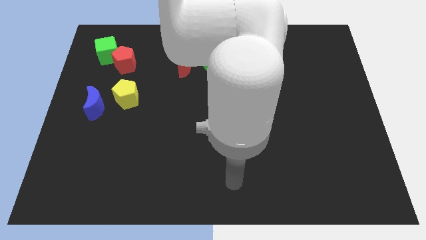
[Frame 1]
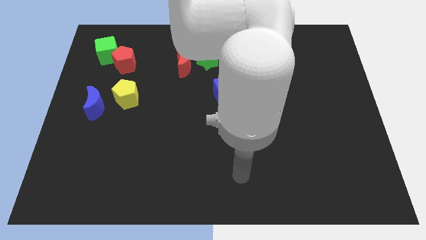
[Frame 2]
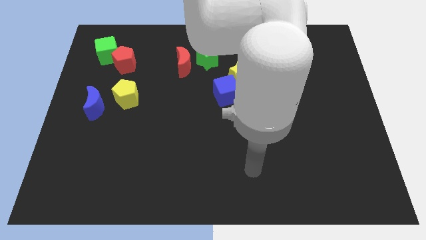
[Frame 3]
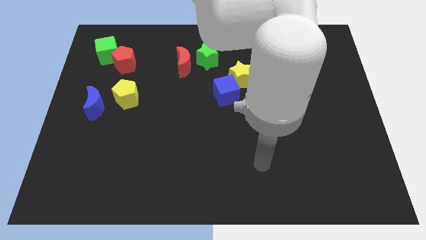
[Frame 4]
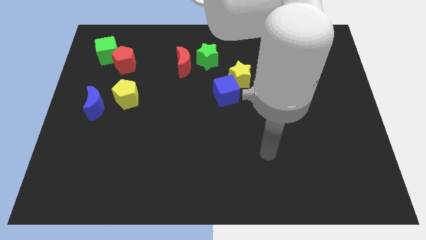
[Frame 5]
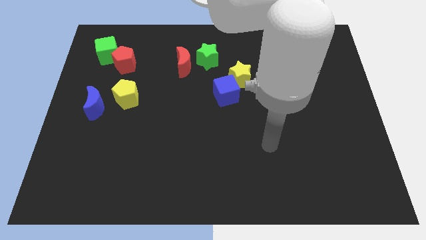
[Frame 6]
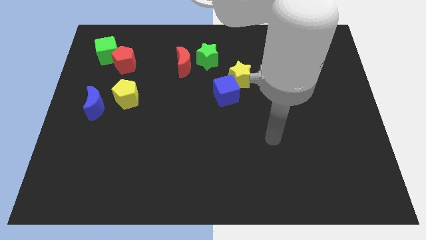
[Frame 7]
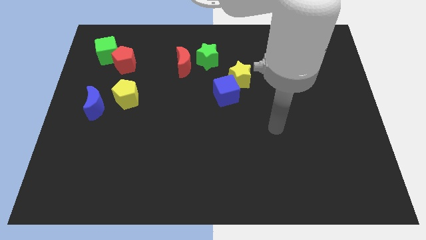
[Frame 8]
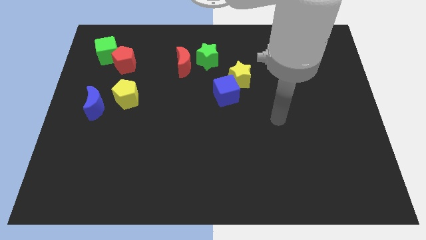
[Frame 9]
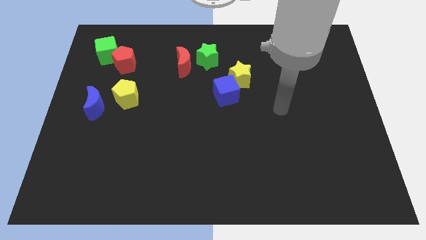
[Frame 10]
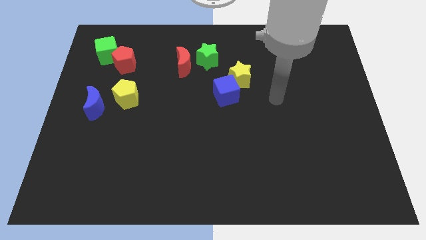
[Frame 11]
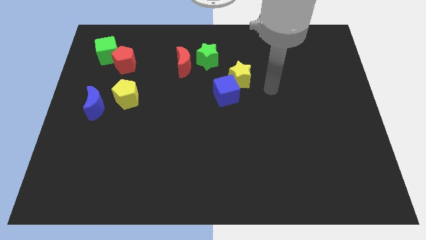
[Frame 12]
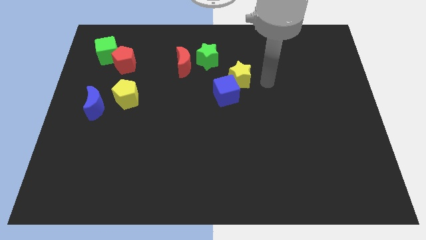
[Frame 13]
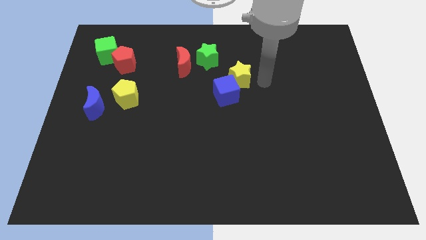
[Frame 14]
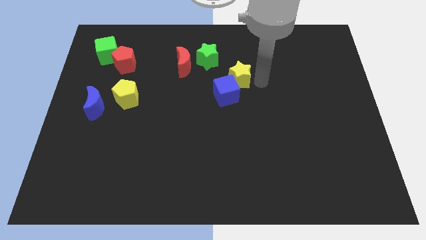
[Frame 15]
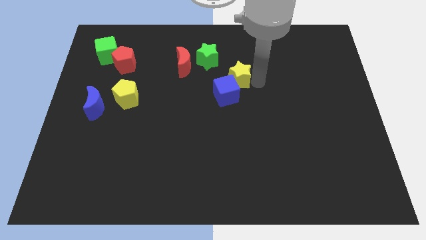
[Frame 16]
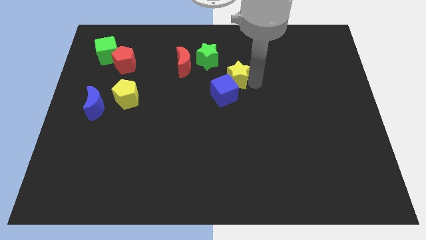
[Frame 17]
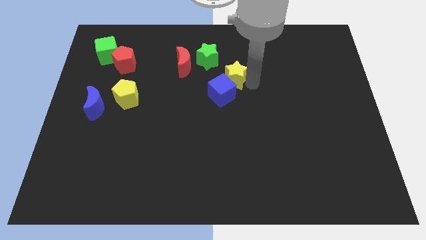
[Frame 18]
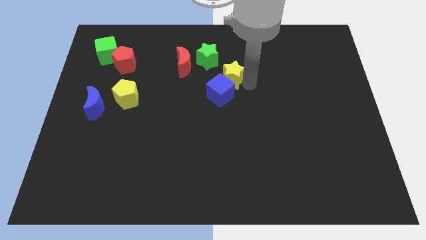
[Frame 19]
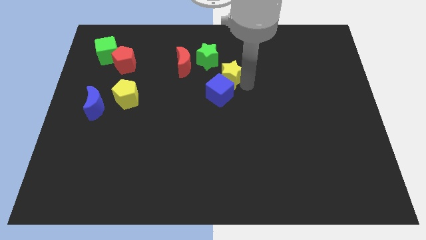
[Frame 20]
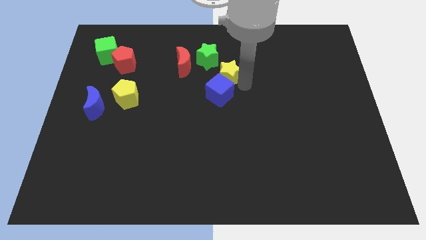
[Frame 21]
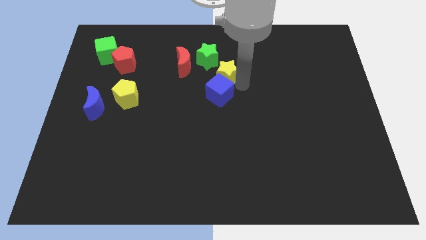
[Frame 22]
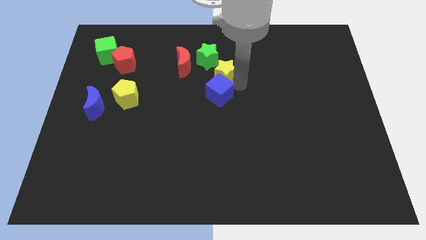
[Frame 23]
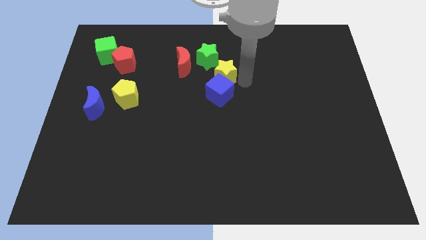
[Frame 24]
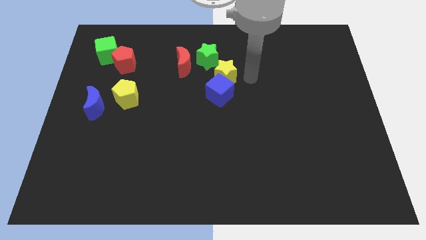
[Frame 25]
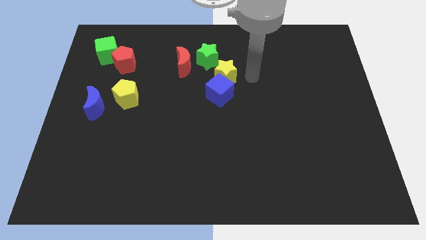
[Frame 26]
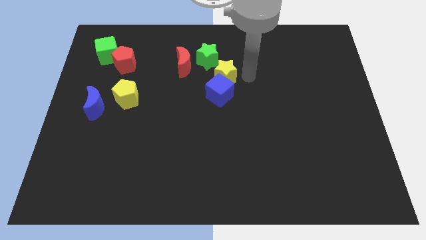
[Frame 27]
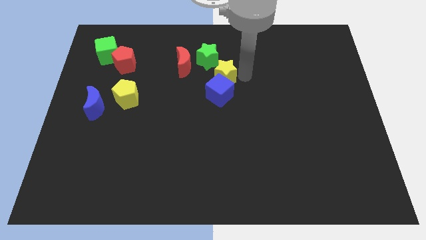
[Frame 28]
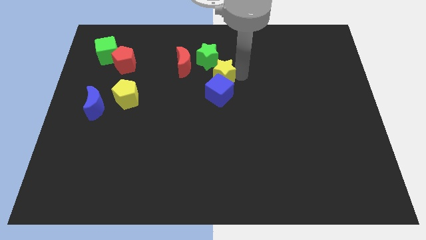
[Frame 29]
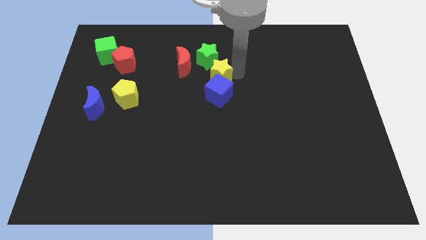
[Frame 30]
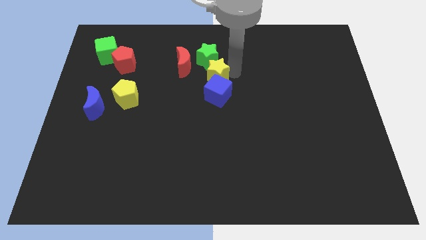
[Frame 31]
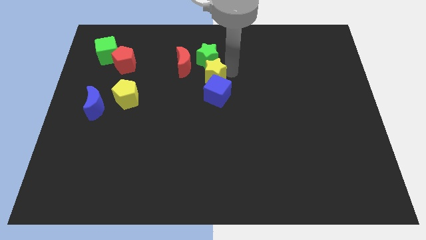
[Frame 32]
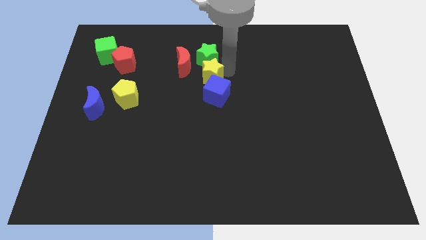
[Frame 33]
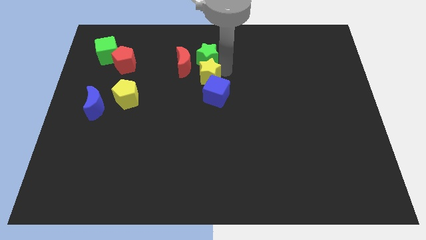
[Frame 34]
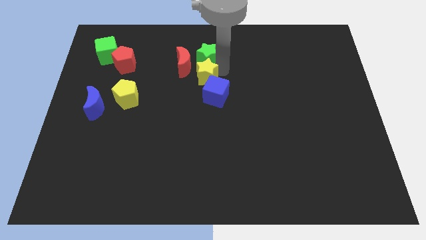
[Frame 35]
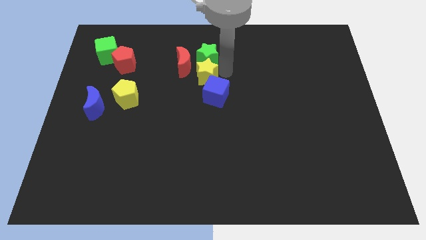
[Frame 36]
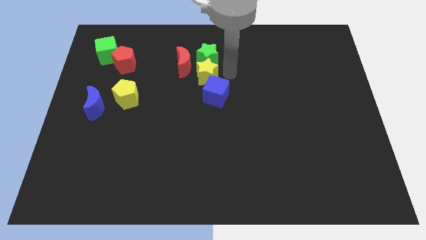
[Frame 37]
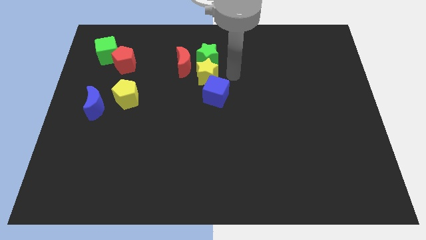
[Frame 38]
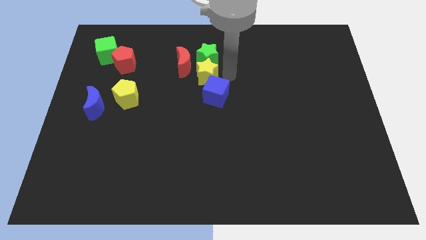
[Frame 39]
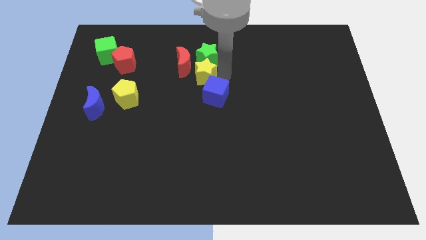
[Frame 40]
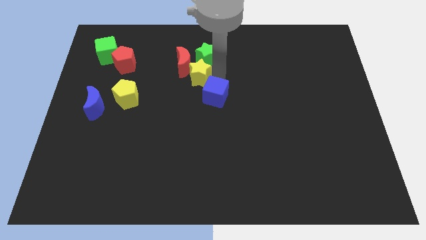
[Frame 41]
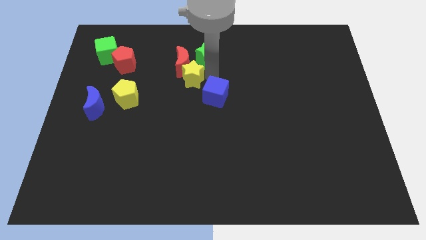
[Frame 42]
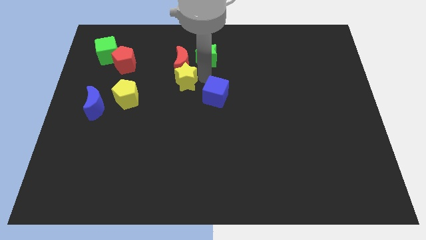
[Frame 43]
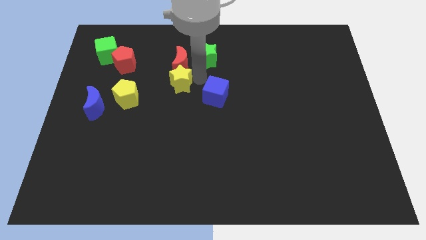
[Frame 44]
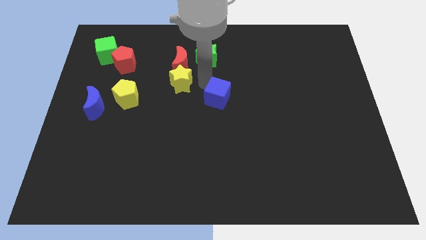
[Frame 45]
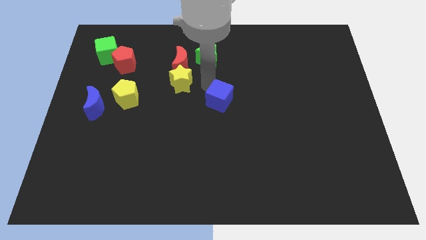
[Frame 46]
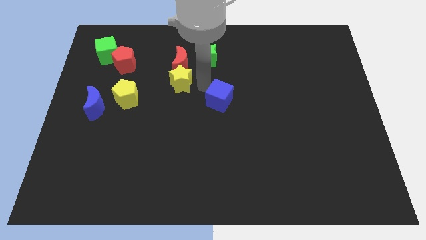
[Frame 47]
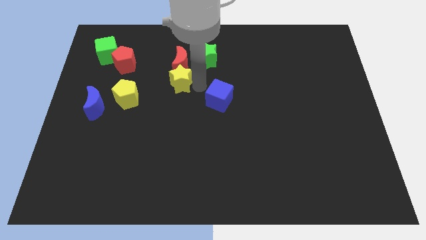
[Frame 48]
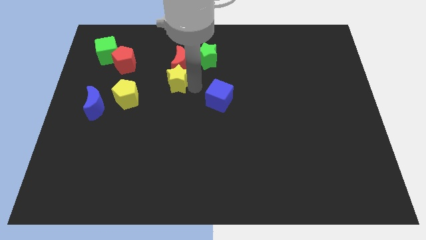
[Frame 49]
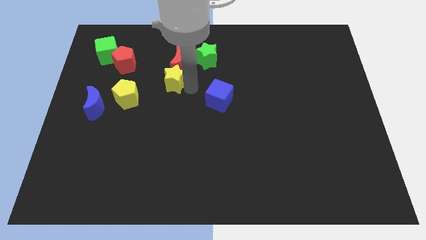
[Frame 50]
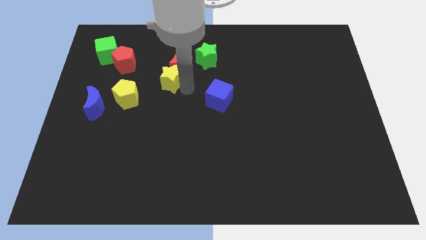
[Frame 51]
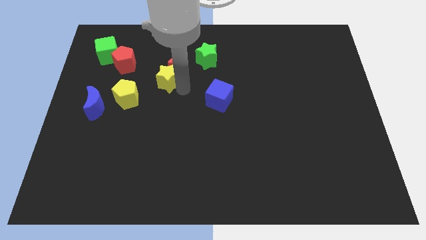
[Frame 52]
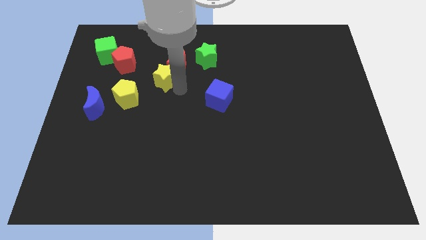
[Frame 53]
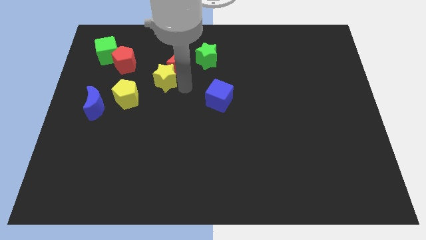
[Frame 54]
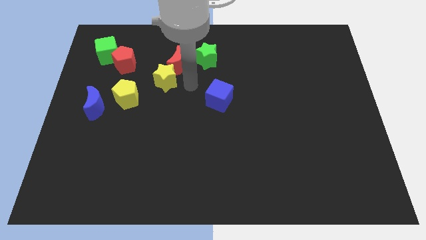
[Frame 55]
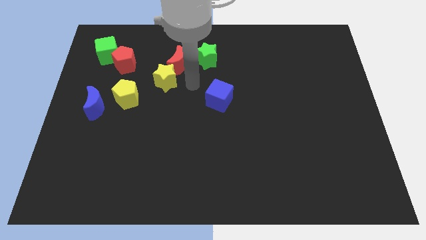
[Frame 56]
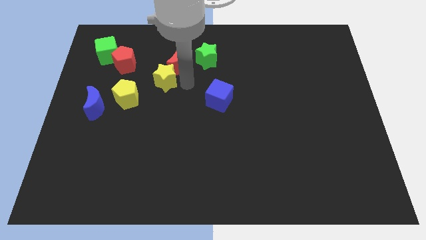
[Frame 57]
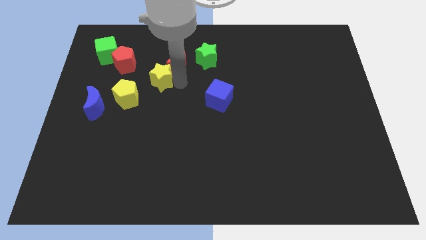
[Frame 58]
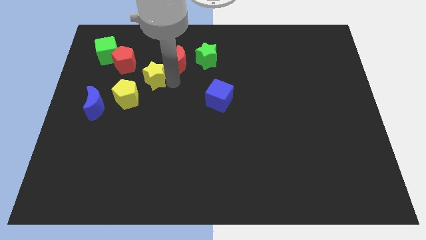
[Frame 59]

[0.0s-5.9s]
push the yellow star left

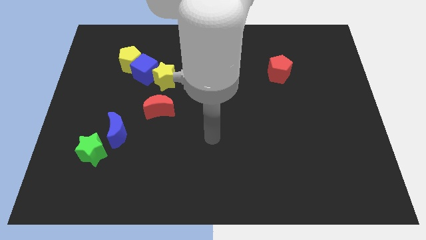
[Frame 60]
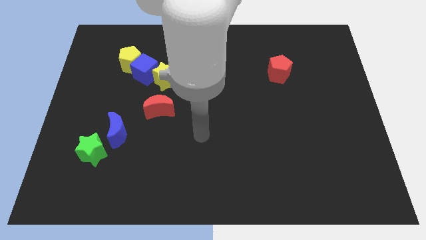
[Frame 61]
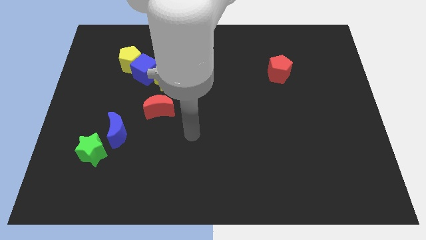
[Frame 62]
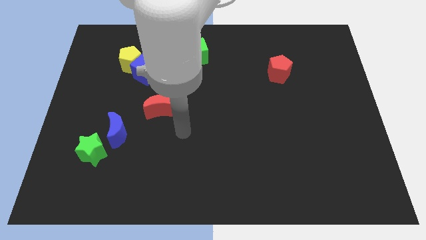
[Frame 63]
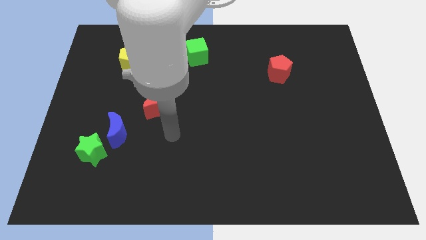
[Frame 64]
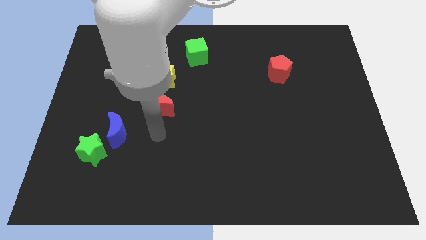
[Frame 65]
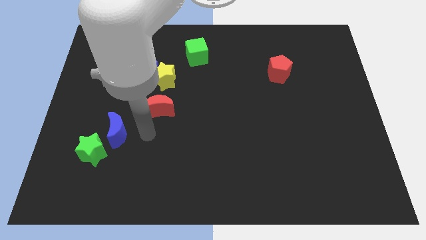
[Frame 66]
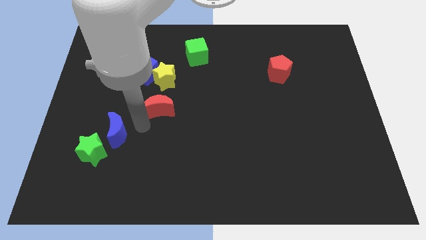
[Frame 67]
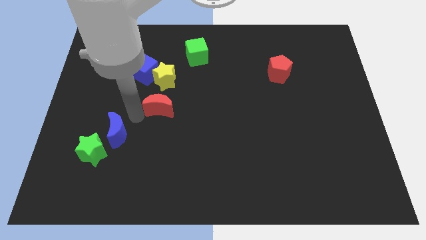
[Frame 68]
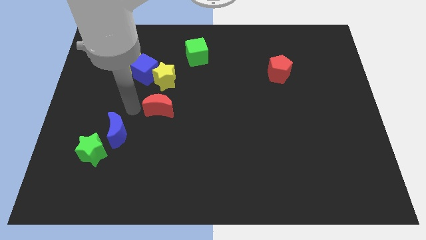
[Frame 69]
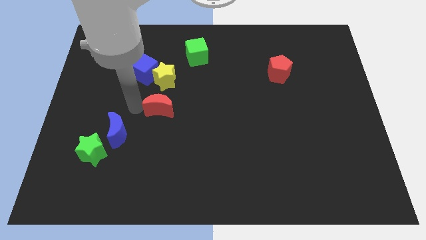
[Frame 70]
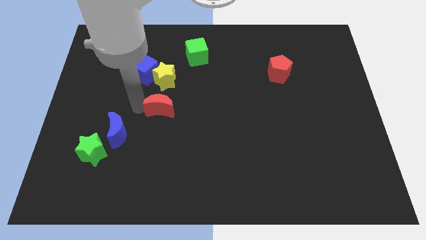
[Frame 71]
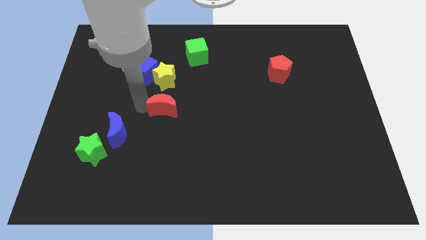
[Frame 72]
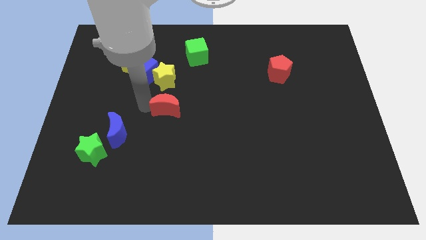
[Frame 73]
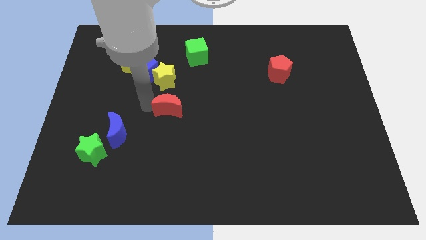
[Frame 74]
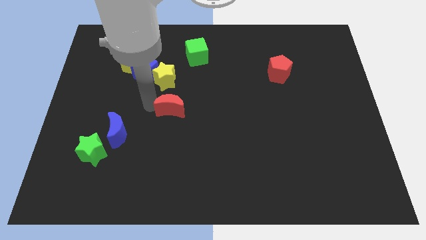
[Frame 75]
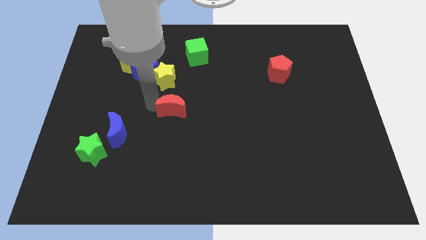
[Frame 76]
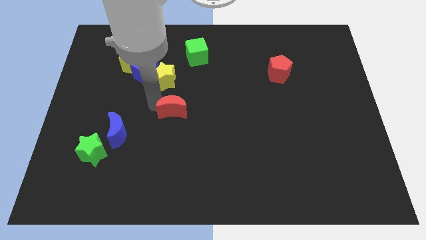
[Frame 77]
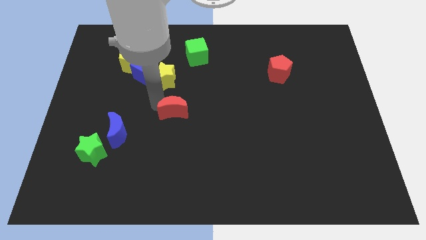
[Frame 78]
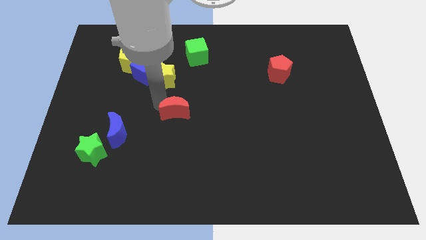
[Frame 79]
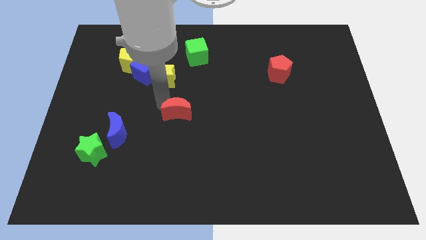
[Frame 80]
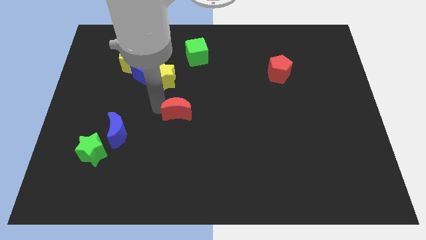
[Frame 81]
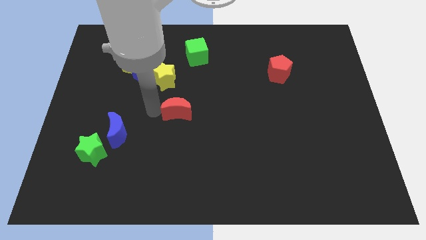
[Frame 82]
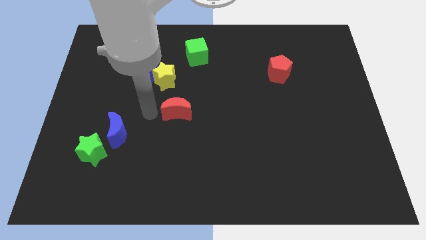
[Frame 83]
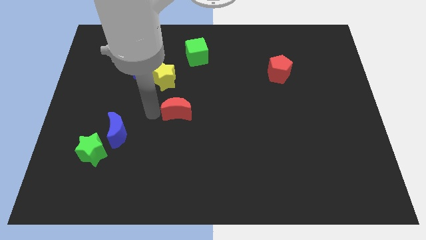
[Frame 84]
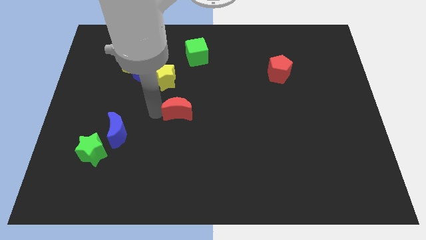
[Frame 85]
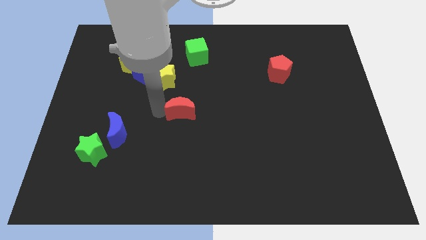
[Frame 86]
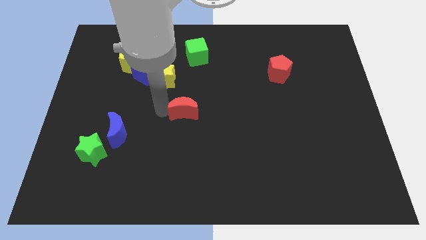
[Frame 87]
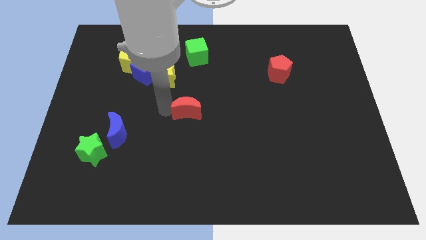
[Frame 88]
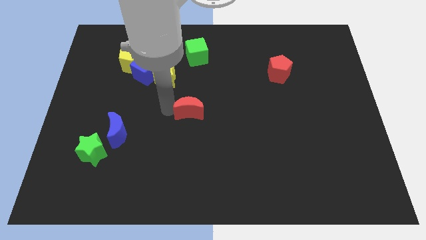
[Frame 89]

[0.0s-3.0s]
push the red moon to the right a little bit
